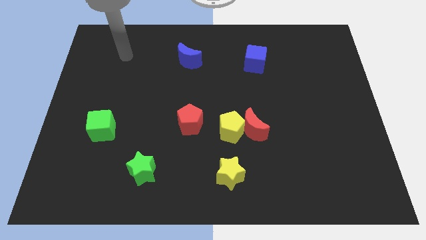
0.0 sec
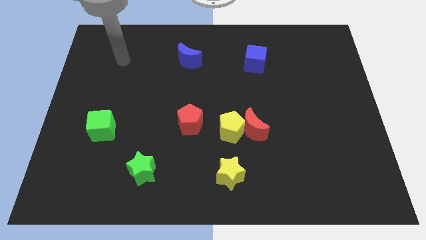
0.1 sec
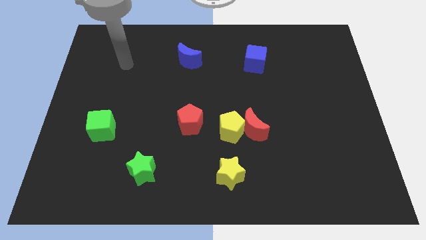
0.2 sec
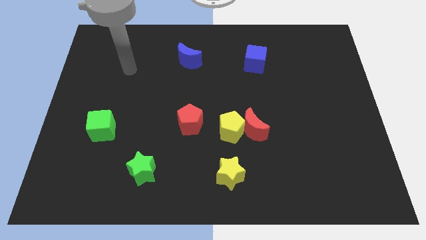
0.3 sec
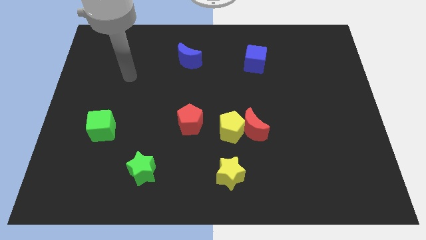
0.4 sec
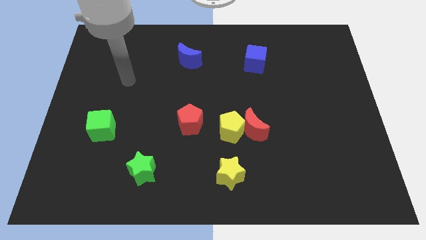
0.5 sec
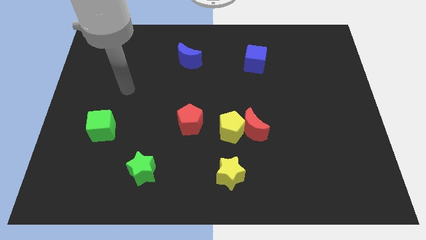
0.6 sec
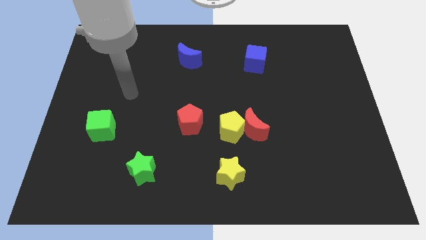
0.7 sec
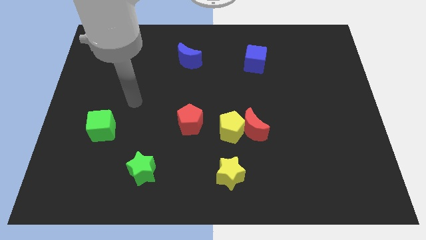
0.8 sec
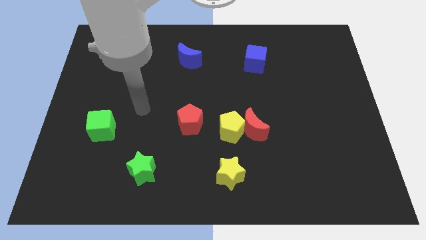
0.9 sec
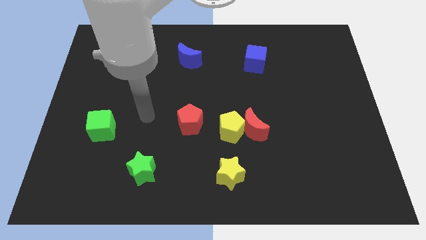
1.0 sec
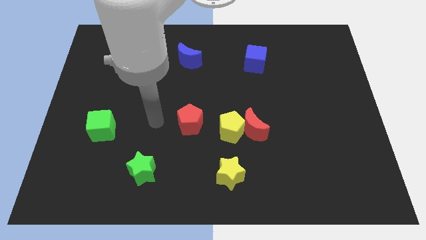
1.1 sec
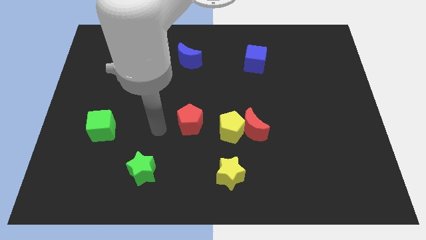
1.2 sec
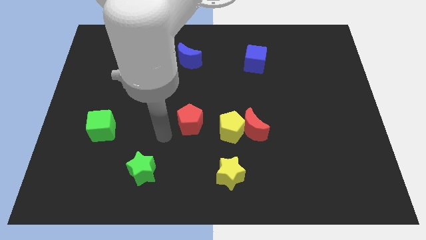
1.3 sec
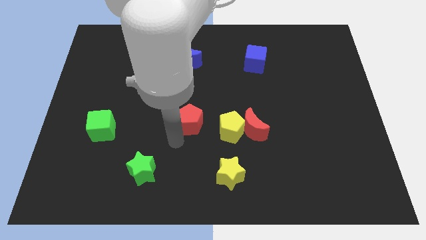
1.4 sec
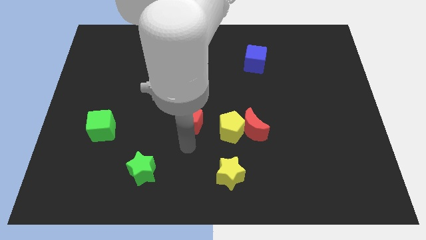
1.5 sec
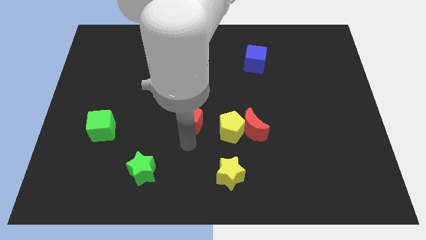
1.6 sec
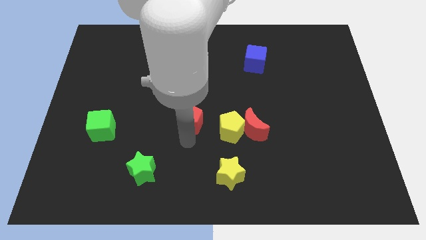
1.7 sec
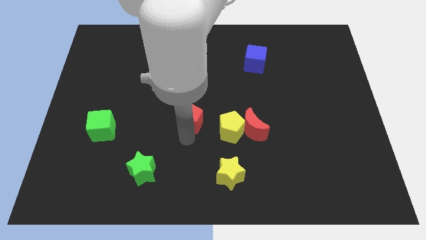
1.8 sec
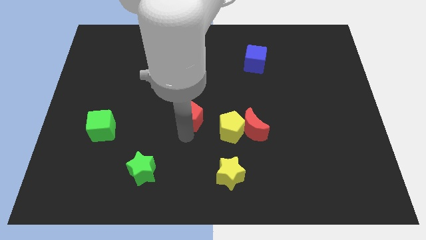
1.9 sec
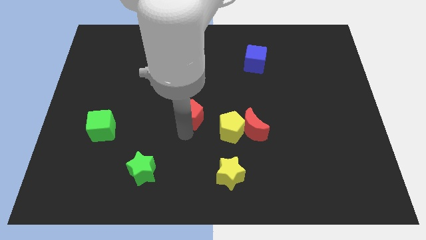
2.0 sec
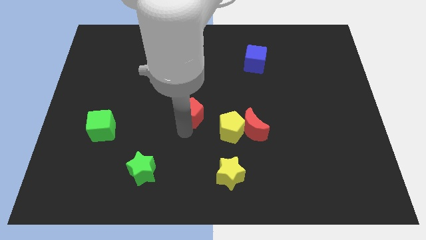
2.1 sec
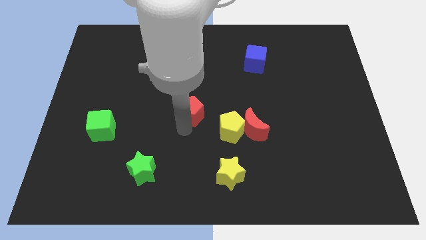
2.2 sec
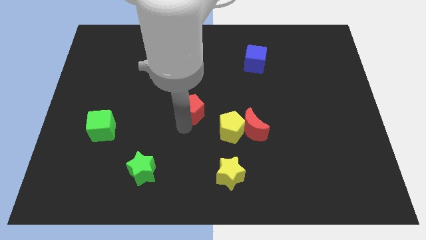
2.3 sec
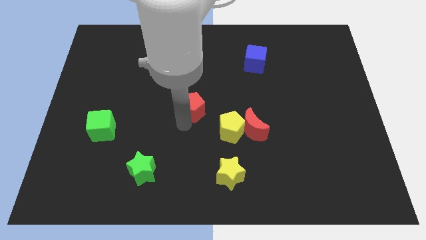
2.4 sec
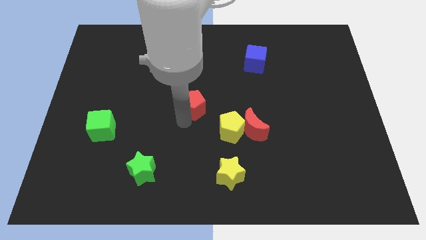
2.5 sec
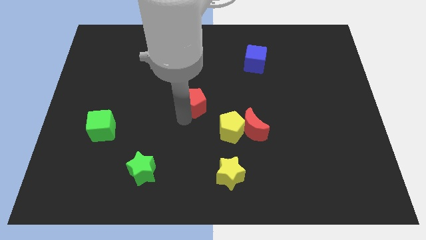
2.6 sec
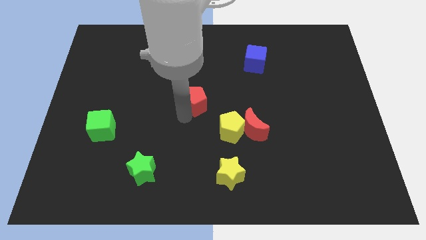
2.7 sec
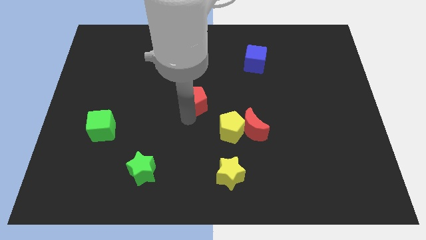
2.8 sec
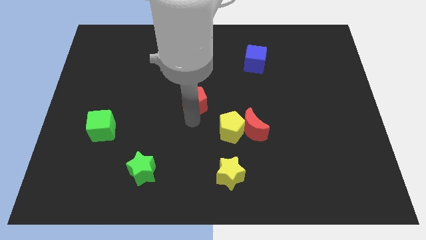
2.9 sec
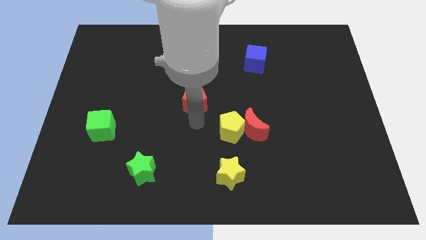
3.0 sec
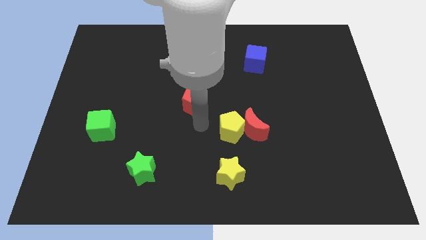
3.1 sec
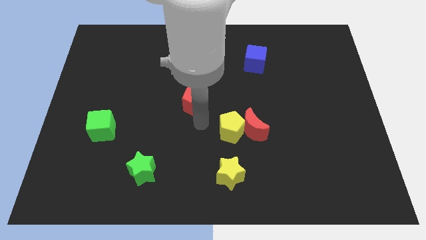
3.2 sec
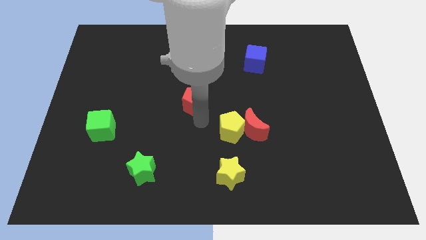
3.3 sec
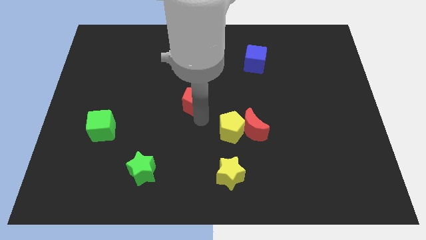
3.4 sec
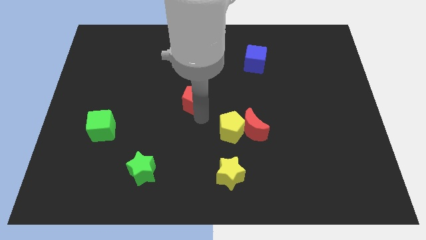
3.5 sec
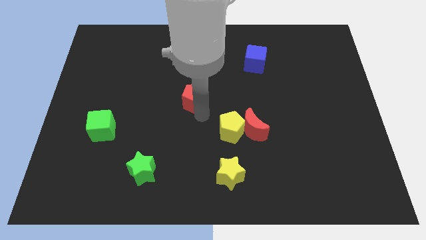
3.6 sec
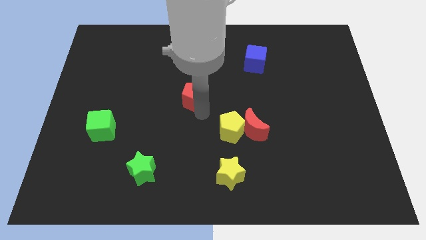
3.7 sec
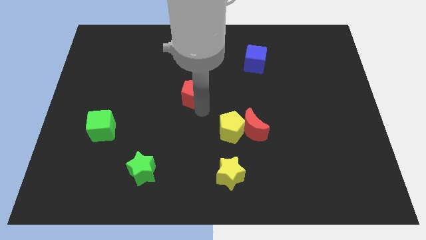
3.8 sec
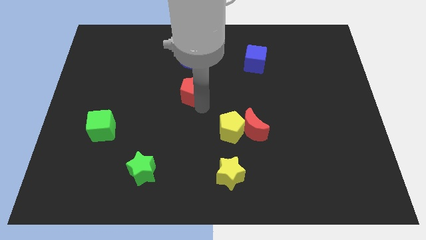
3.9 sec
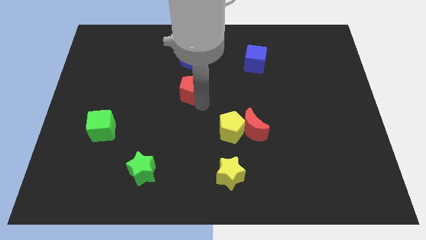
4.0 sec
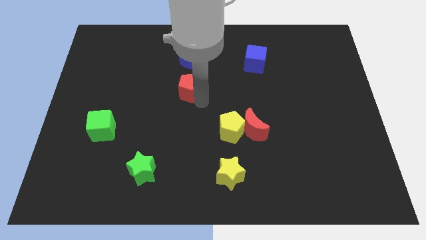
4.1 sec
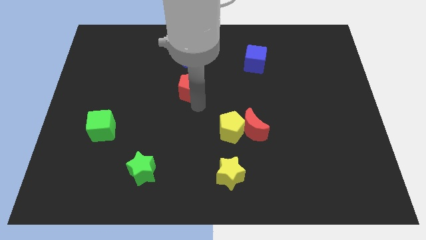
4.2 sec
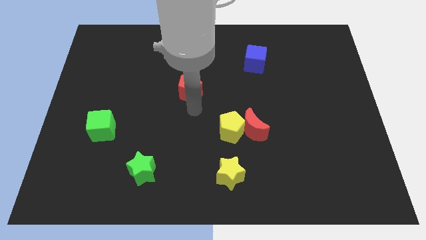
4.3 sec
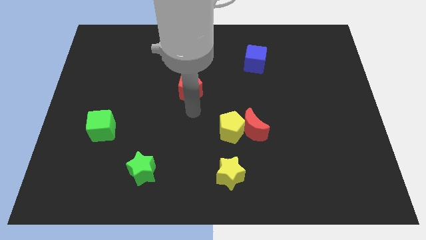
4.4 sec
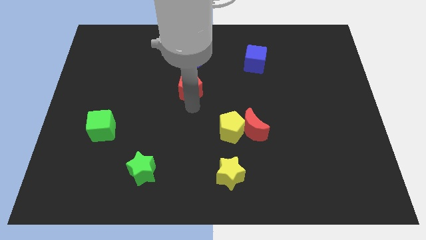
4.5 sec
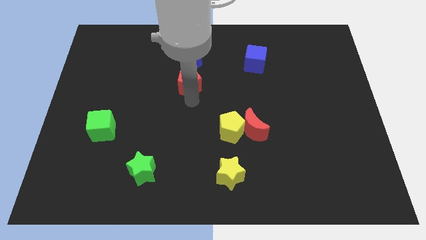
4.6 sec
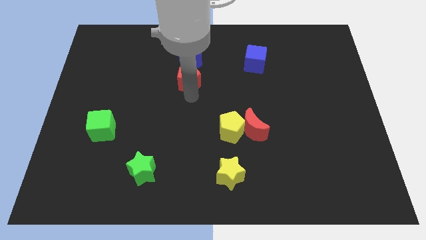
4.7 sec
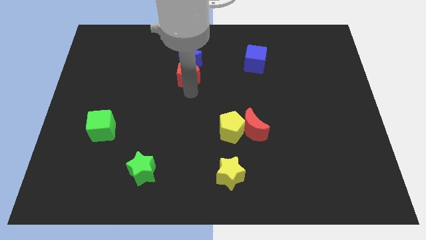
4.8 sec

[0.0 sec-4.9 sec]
slide the red pentagon close to the blue moon

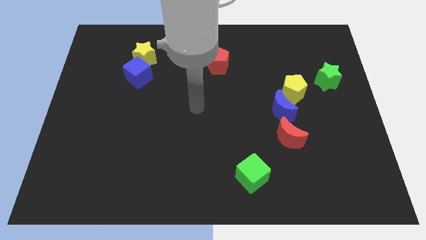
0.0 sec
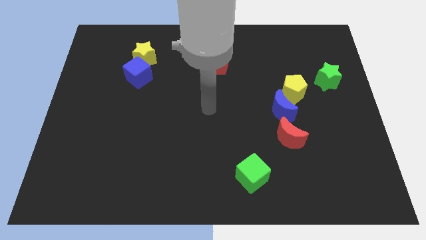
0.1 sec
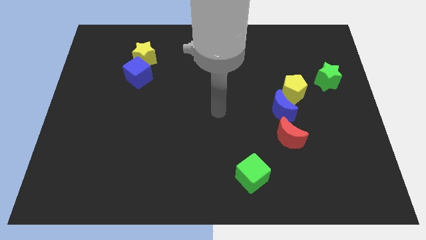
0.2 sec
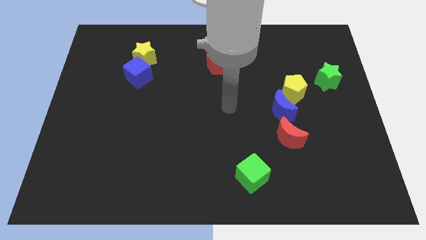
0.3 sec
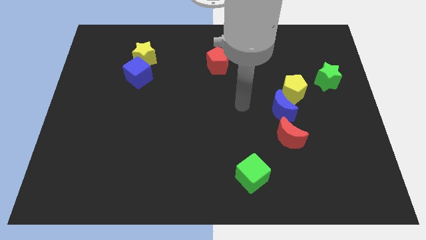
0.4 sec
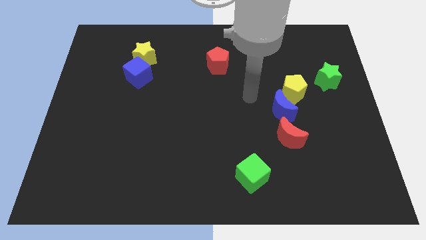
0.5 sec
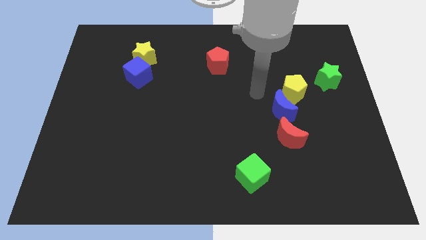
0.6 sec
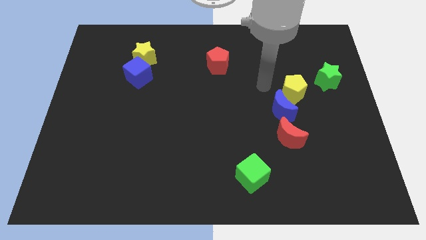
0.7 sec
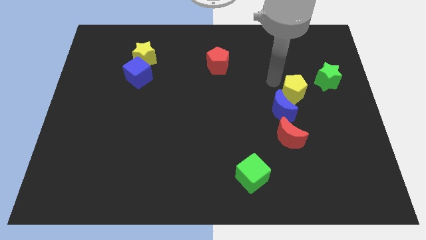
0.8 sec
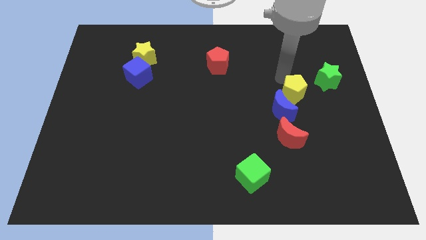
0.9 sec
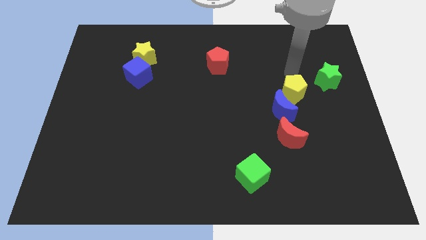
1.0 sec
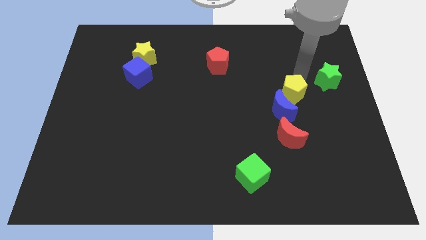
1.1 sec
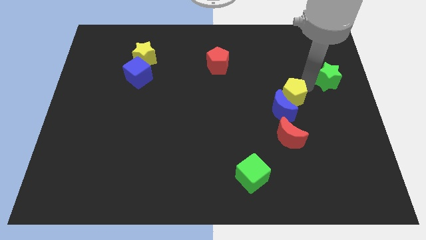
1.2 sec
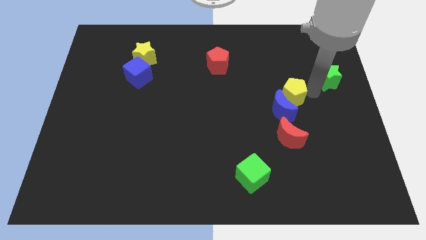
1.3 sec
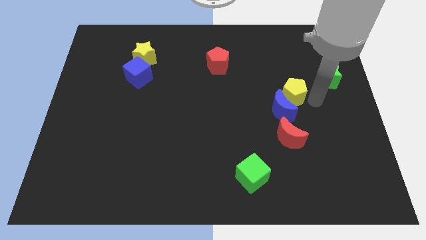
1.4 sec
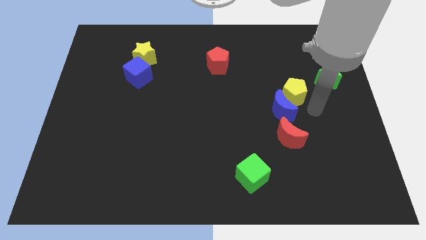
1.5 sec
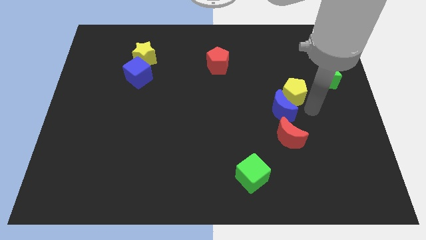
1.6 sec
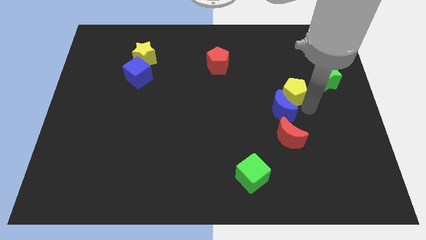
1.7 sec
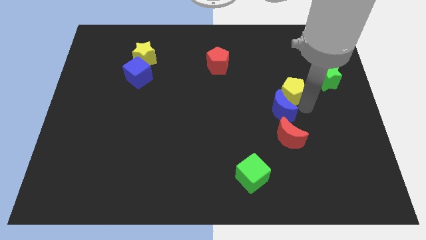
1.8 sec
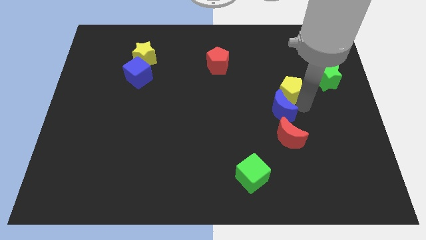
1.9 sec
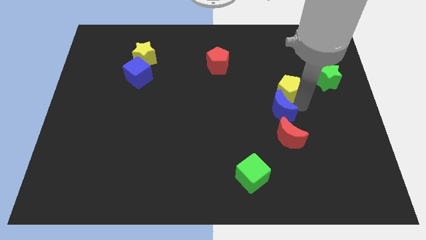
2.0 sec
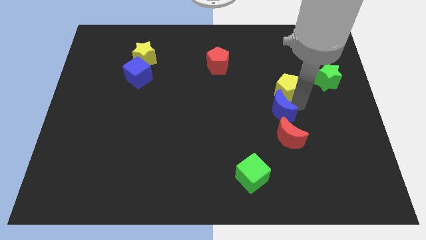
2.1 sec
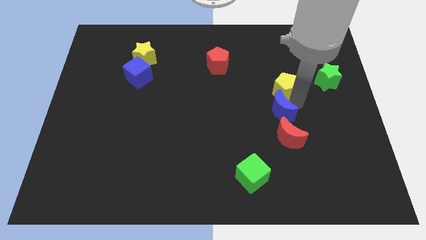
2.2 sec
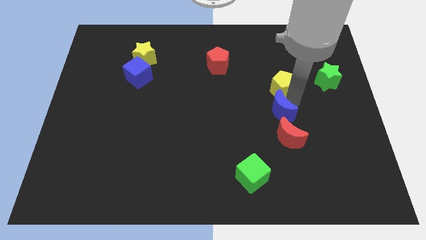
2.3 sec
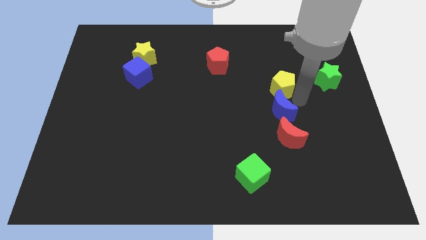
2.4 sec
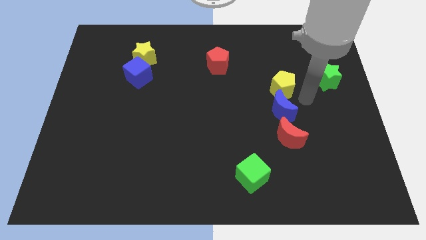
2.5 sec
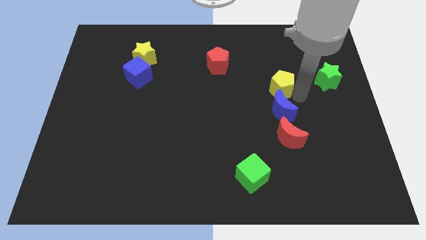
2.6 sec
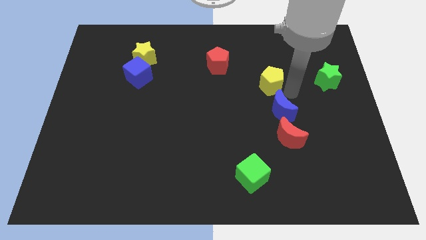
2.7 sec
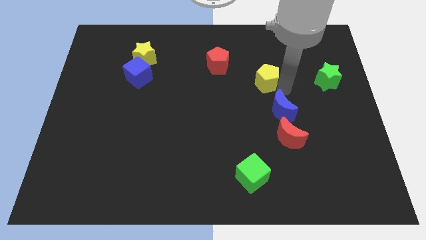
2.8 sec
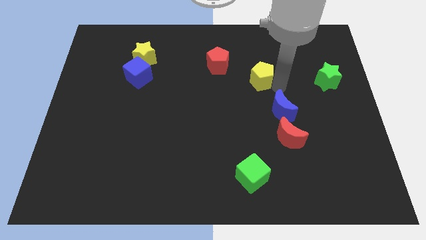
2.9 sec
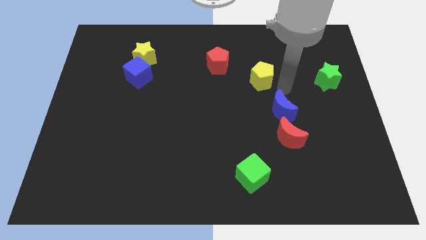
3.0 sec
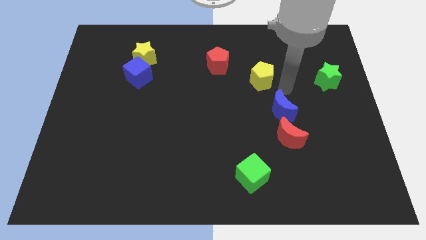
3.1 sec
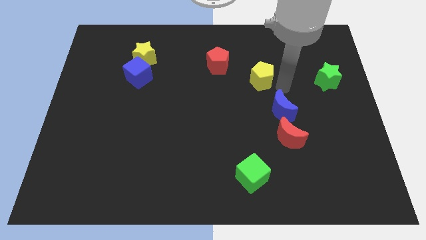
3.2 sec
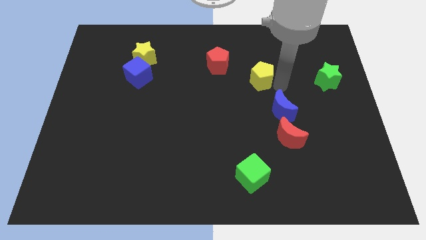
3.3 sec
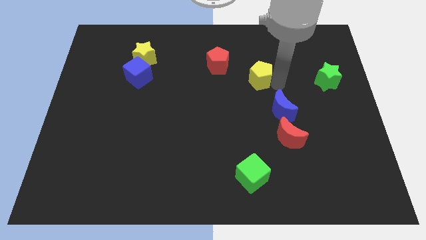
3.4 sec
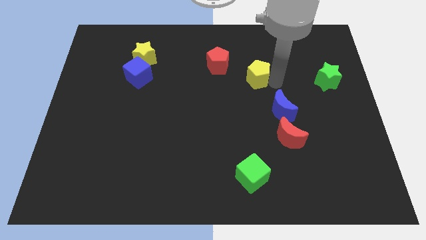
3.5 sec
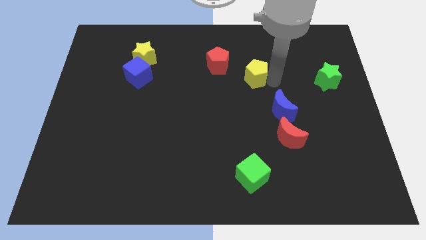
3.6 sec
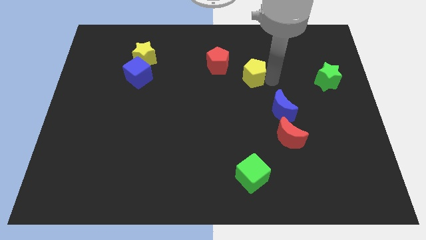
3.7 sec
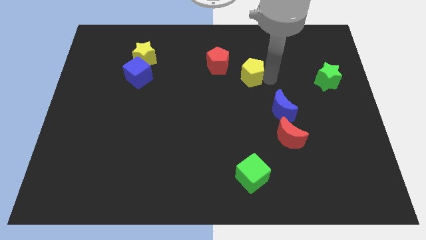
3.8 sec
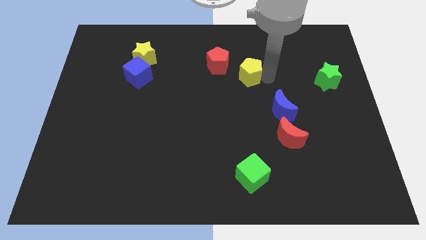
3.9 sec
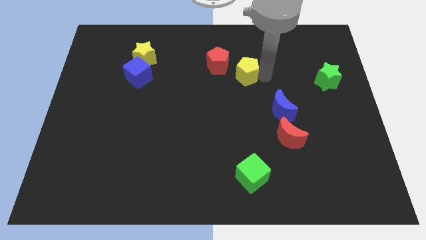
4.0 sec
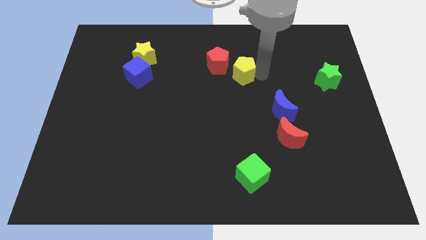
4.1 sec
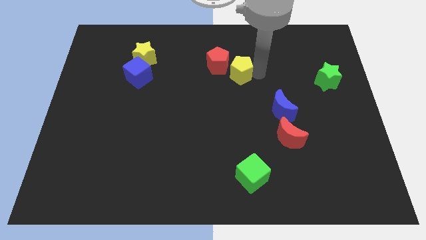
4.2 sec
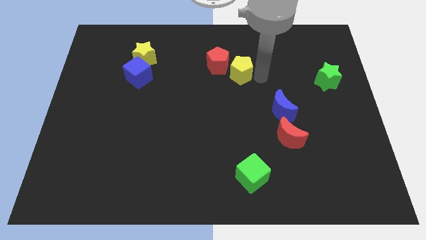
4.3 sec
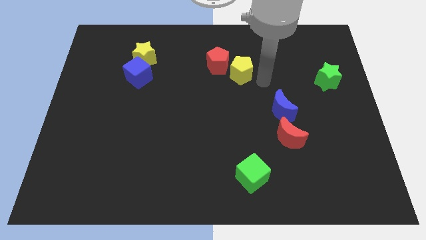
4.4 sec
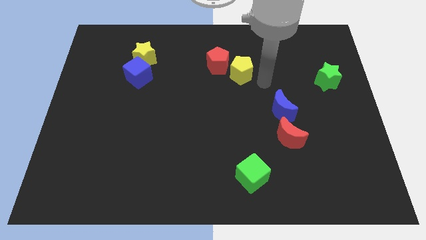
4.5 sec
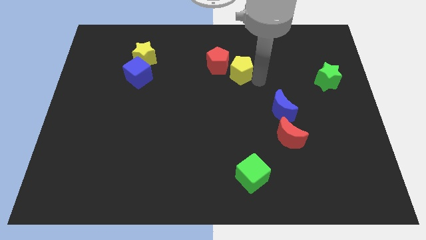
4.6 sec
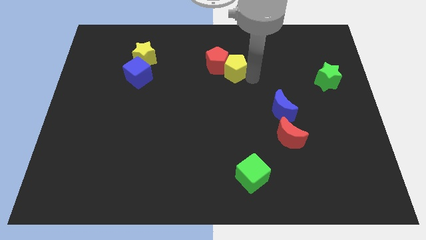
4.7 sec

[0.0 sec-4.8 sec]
put the yellow pentagon next to the red pentagon
